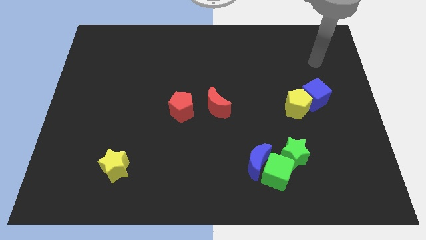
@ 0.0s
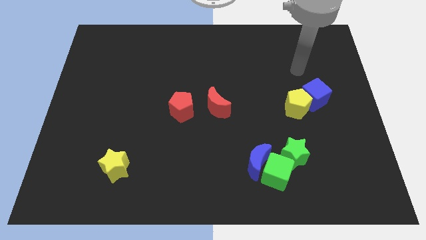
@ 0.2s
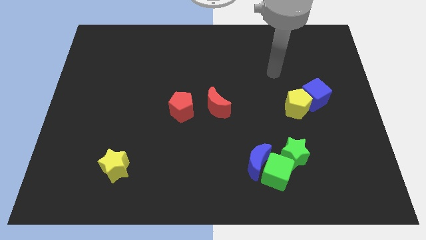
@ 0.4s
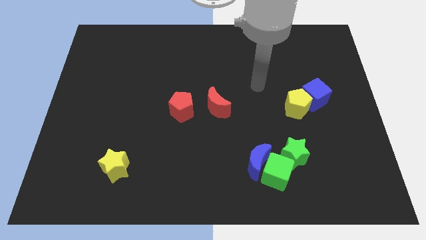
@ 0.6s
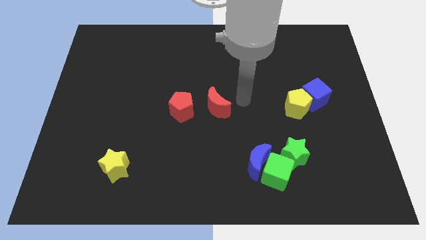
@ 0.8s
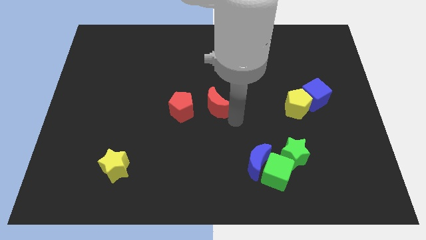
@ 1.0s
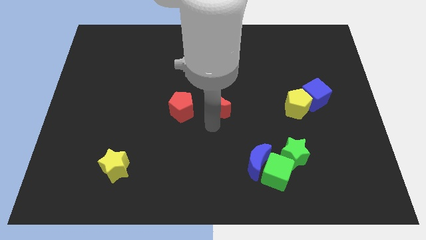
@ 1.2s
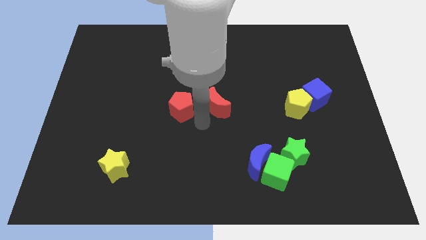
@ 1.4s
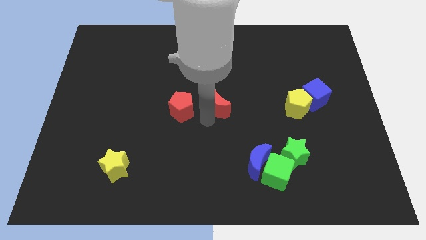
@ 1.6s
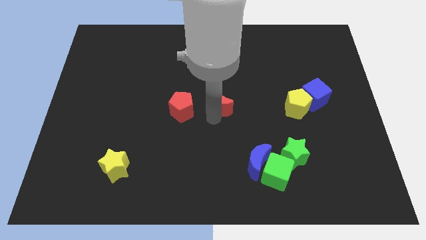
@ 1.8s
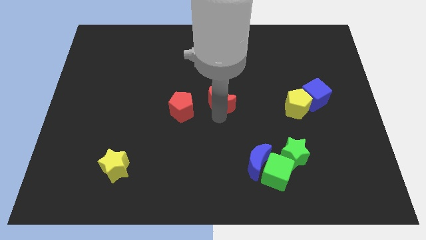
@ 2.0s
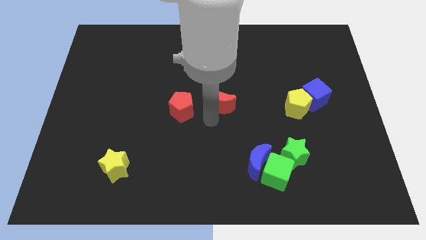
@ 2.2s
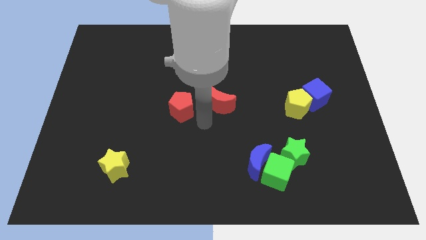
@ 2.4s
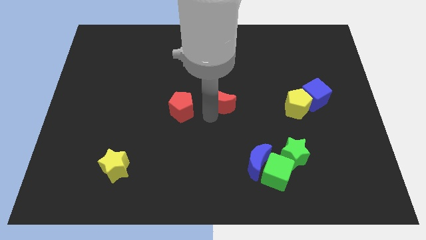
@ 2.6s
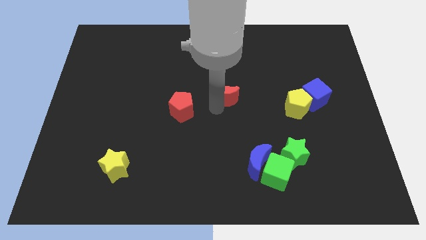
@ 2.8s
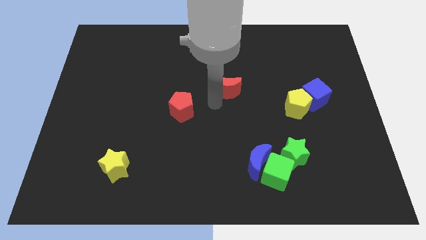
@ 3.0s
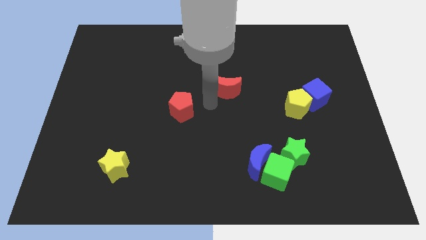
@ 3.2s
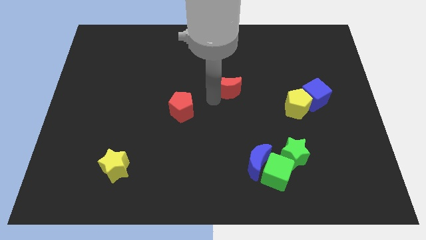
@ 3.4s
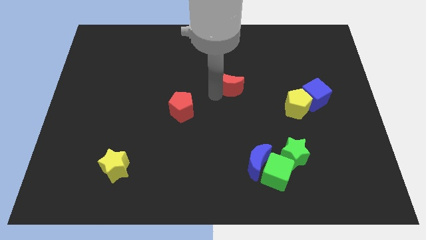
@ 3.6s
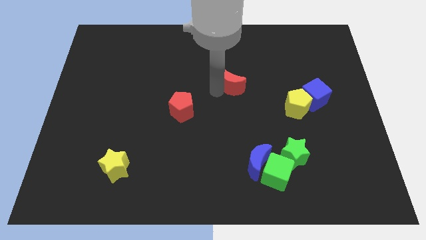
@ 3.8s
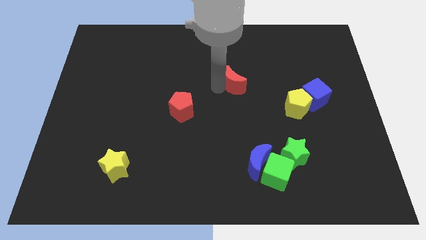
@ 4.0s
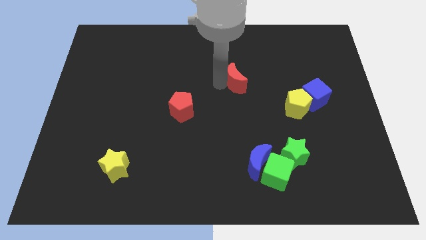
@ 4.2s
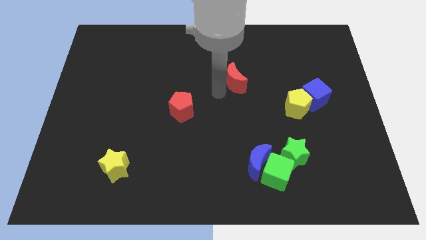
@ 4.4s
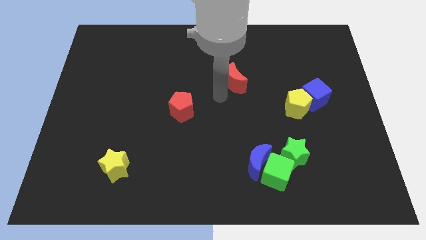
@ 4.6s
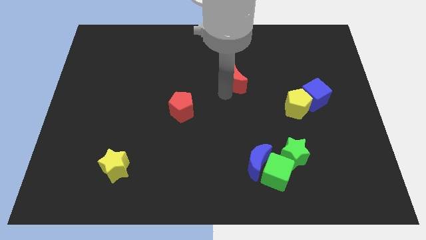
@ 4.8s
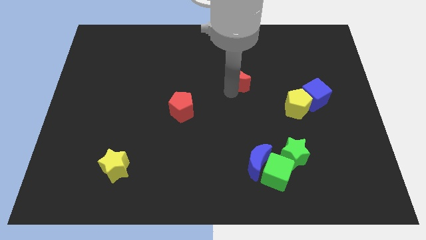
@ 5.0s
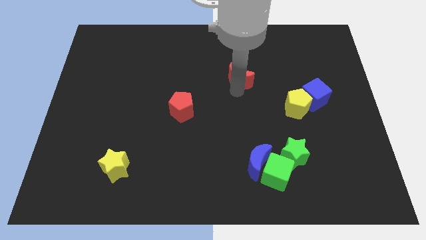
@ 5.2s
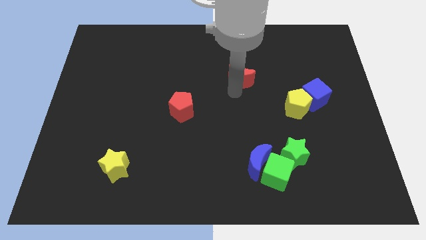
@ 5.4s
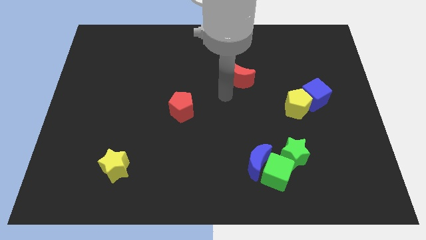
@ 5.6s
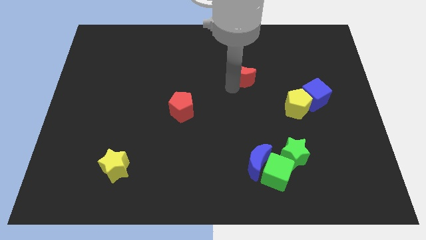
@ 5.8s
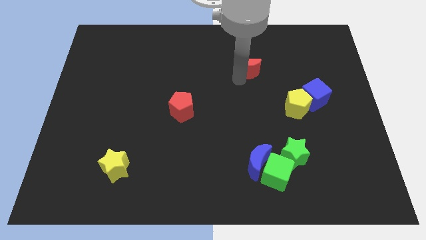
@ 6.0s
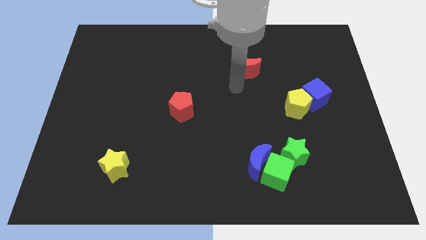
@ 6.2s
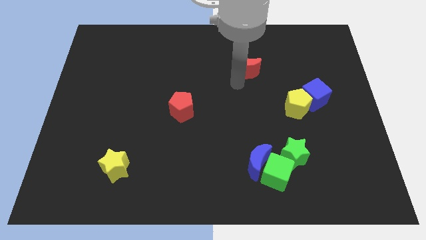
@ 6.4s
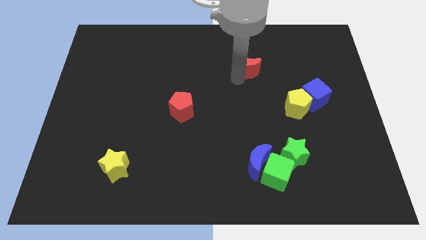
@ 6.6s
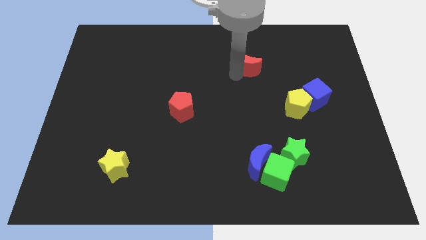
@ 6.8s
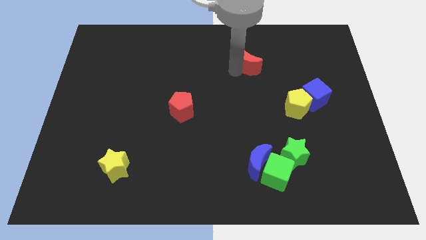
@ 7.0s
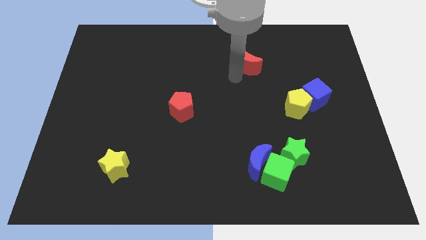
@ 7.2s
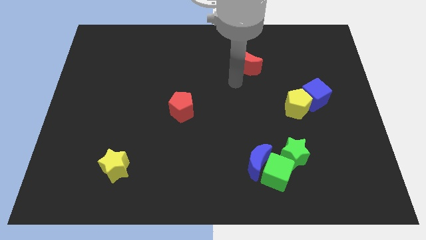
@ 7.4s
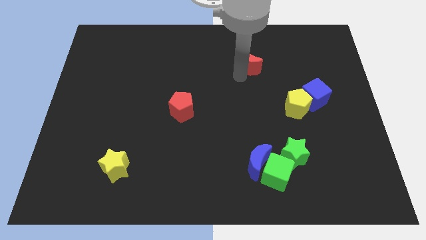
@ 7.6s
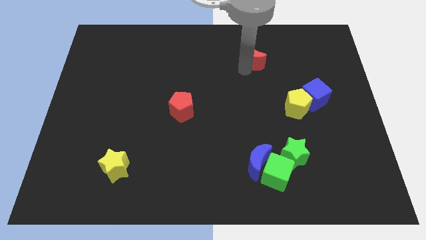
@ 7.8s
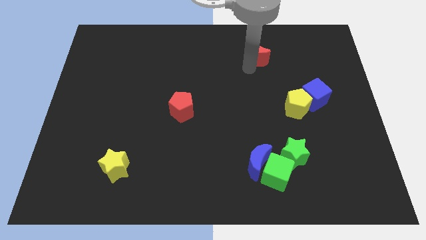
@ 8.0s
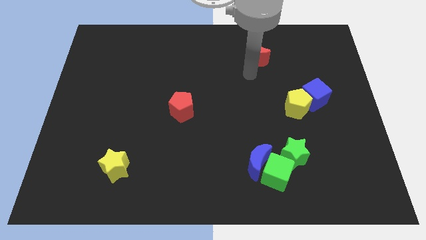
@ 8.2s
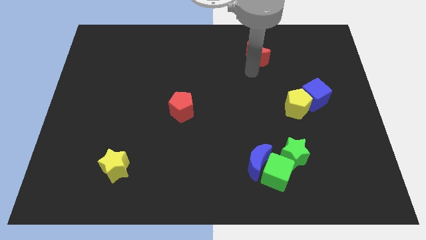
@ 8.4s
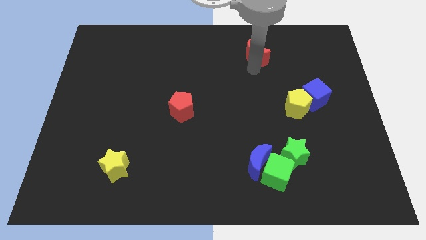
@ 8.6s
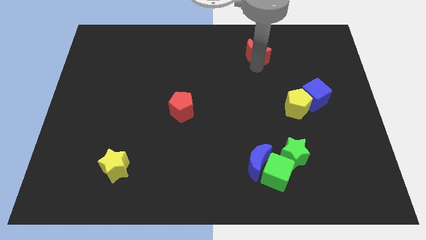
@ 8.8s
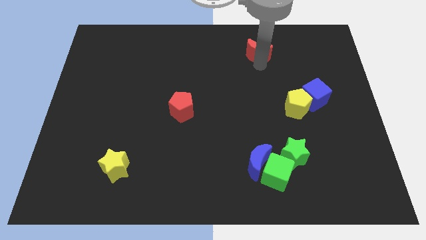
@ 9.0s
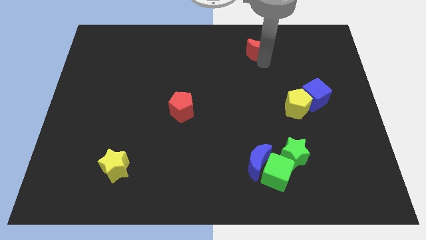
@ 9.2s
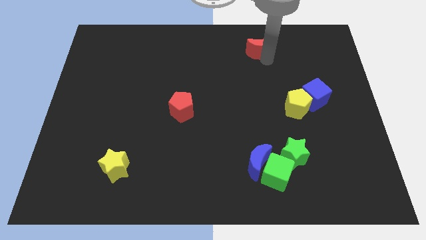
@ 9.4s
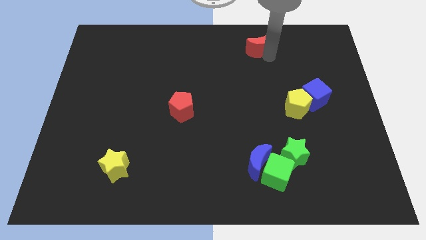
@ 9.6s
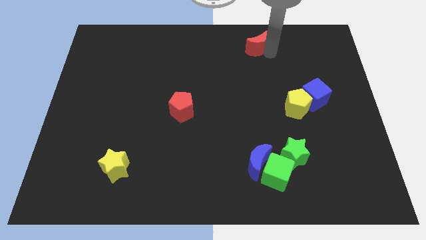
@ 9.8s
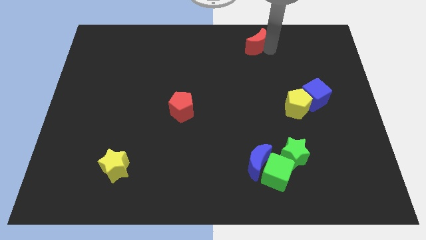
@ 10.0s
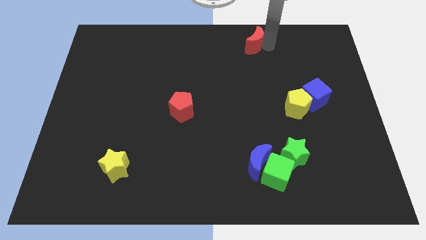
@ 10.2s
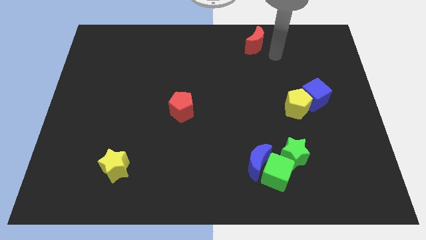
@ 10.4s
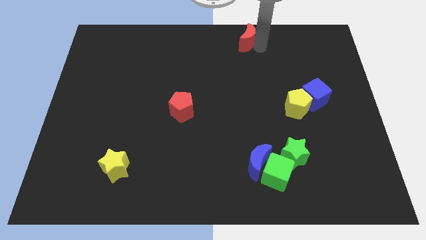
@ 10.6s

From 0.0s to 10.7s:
slide the red moon to the towards your base

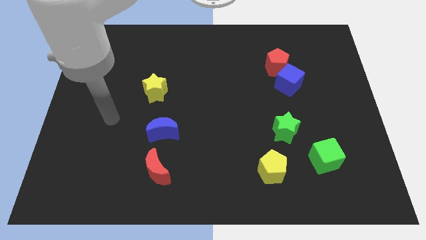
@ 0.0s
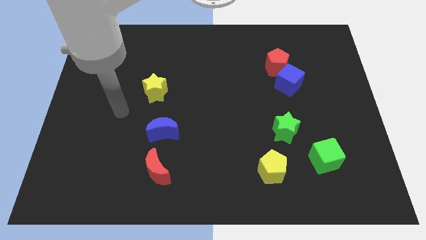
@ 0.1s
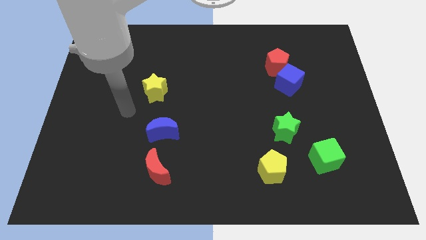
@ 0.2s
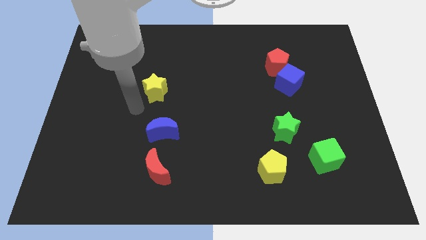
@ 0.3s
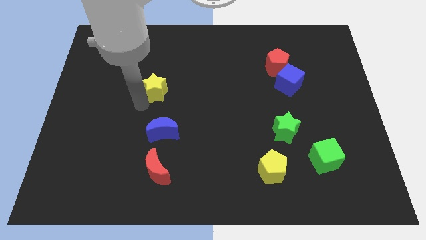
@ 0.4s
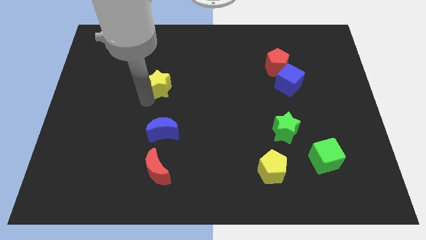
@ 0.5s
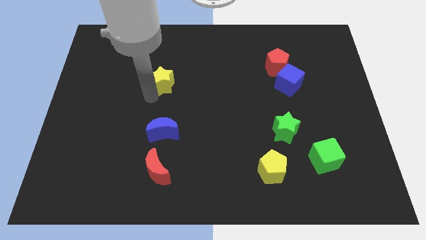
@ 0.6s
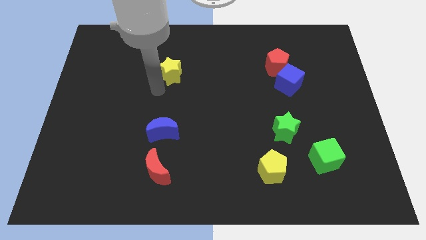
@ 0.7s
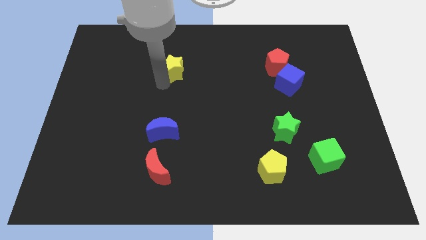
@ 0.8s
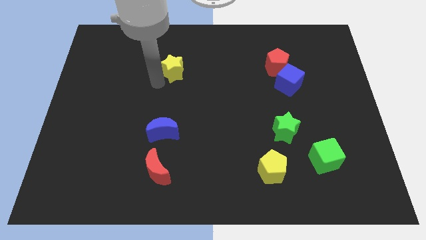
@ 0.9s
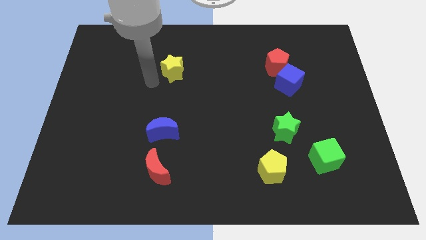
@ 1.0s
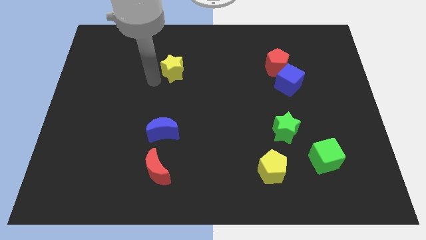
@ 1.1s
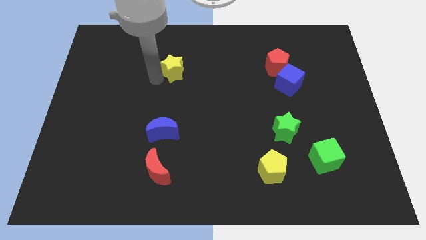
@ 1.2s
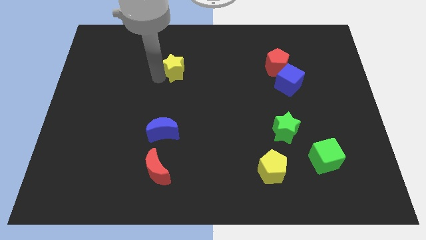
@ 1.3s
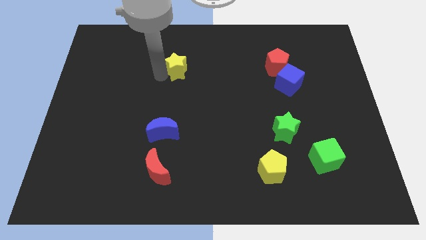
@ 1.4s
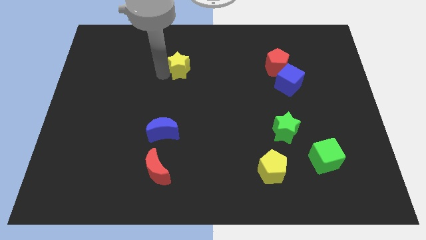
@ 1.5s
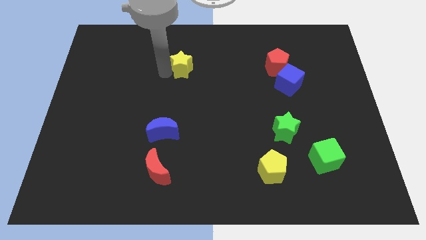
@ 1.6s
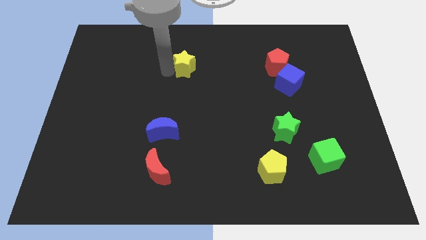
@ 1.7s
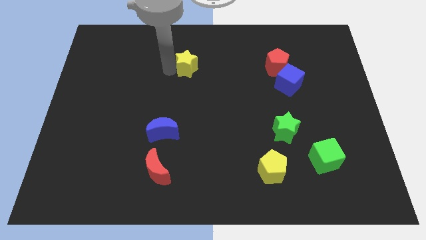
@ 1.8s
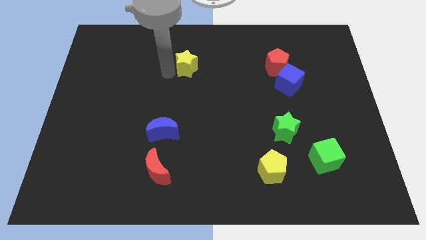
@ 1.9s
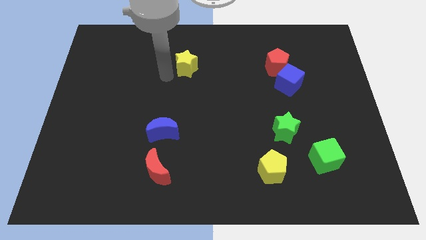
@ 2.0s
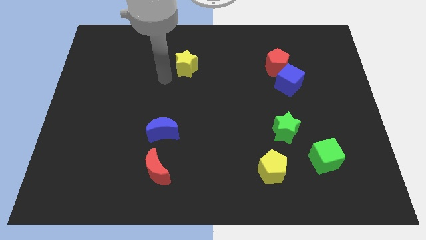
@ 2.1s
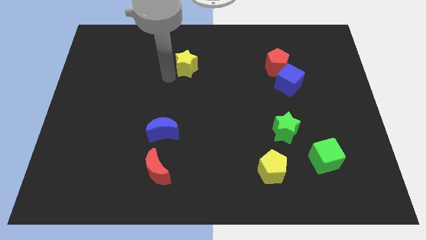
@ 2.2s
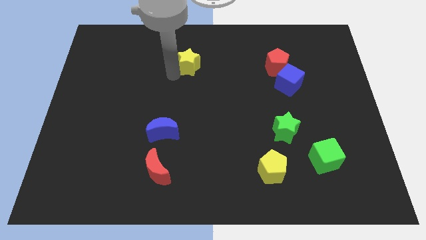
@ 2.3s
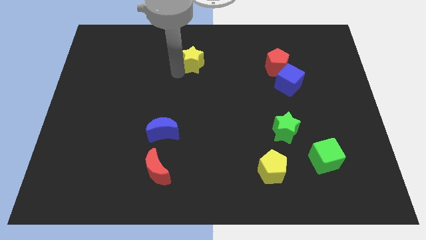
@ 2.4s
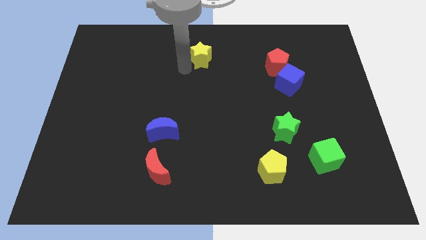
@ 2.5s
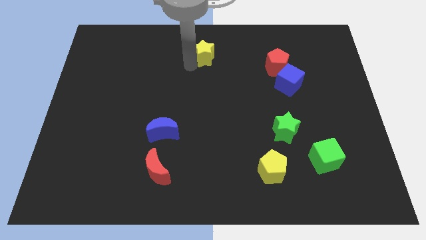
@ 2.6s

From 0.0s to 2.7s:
move the yellow star to the towards your base
